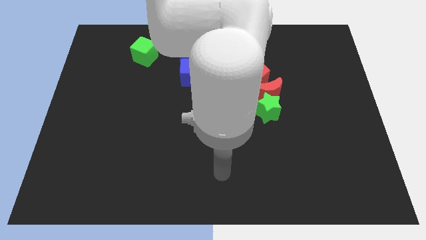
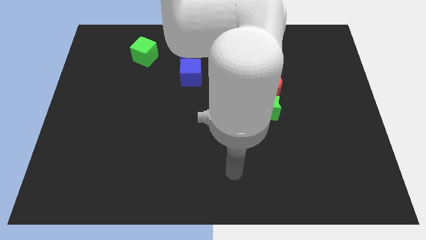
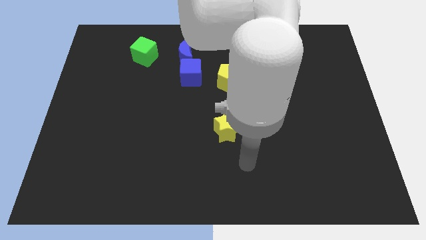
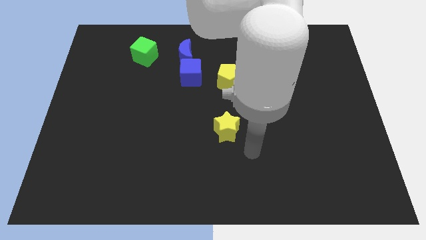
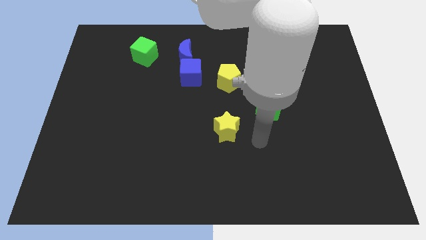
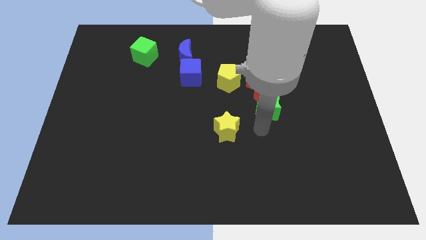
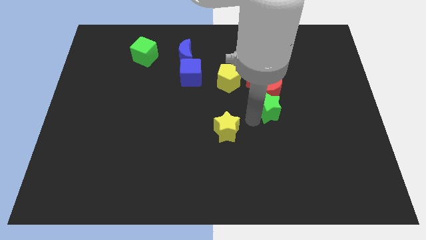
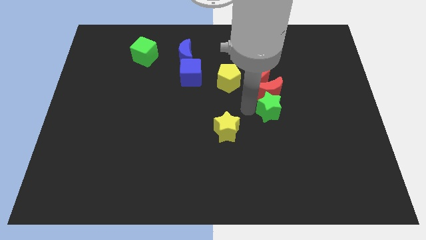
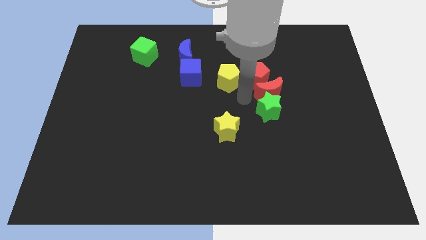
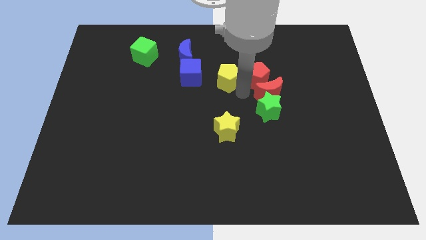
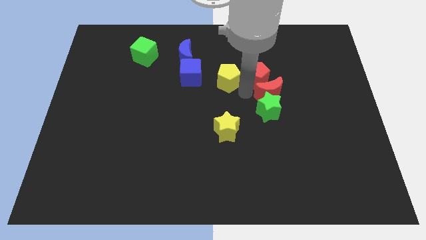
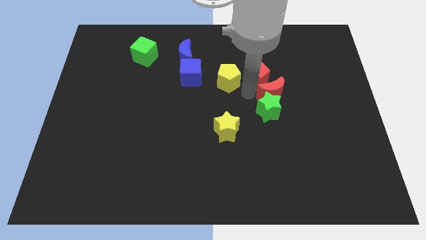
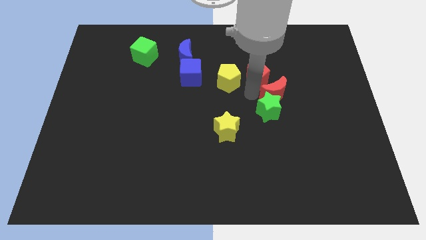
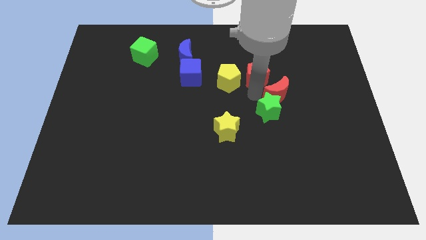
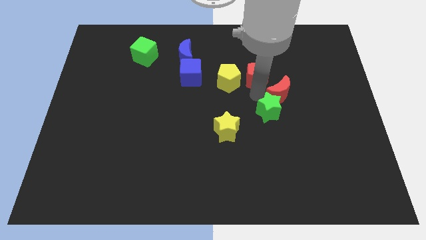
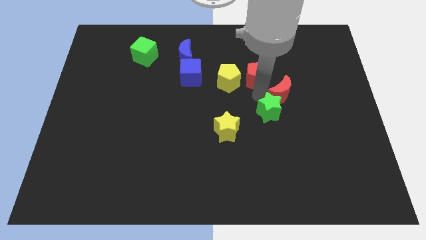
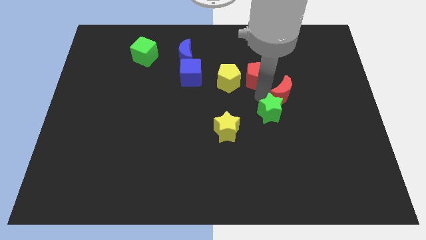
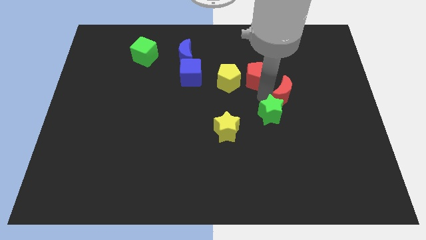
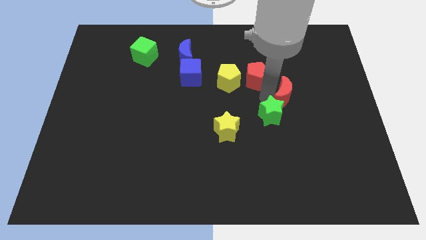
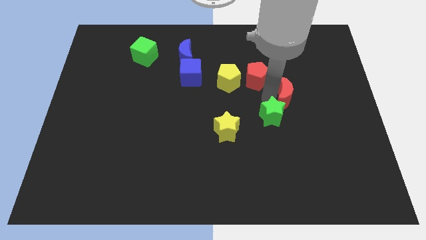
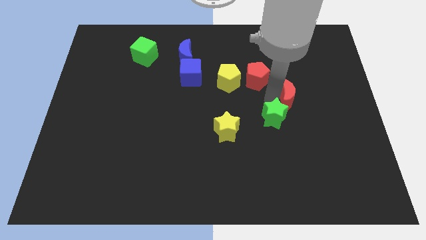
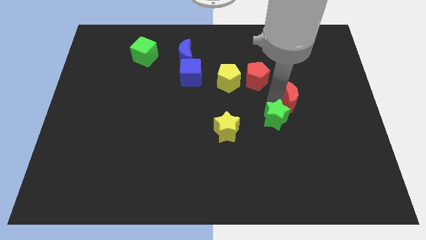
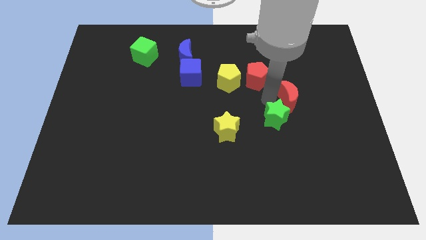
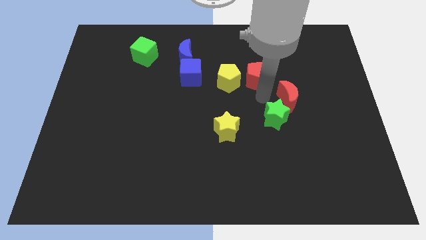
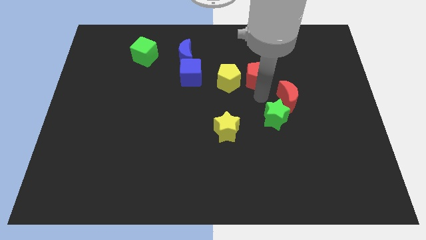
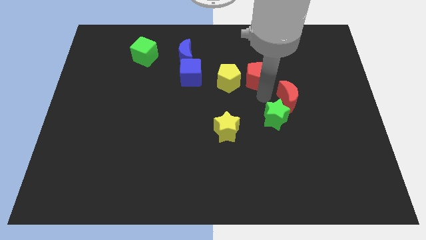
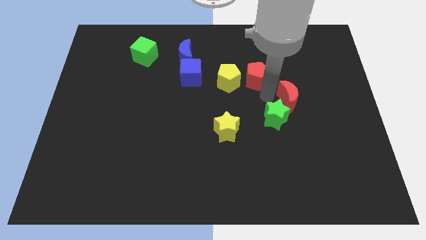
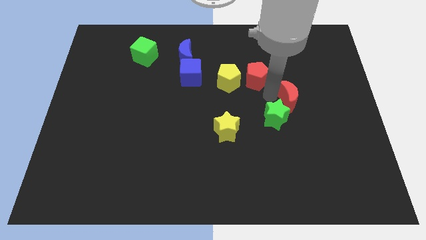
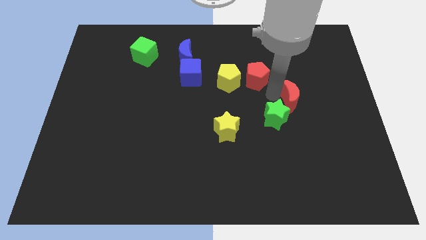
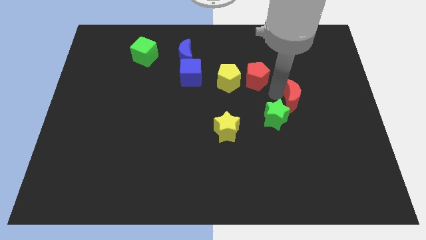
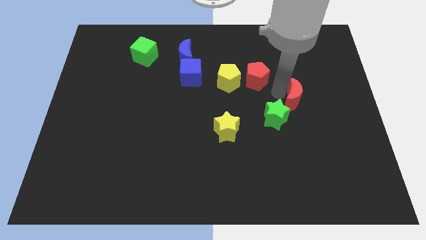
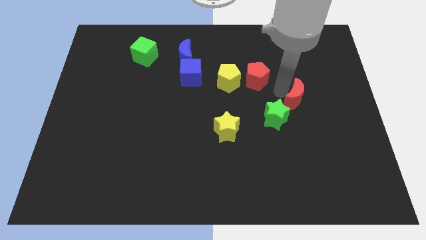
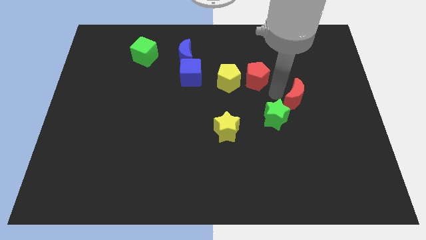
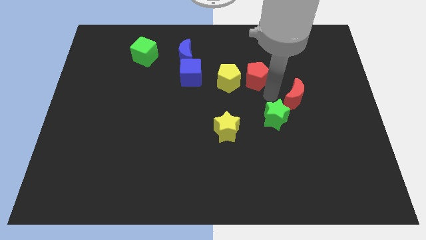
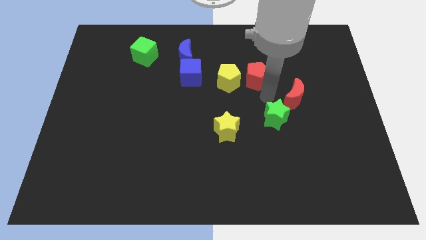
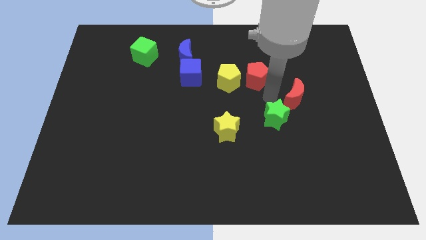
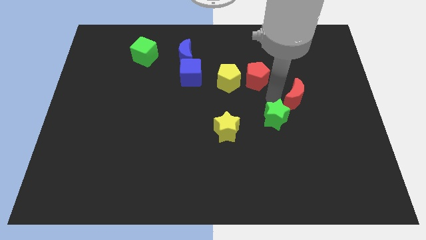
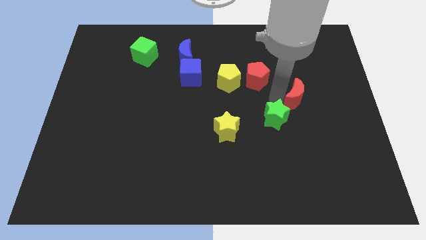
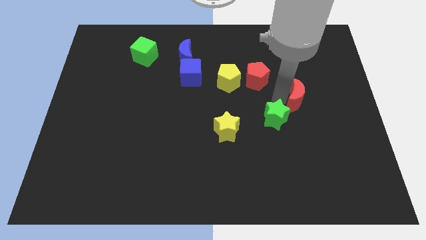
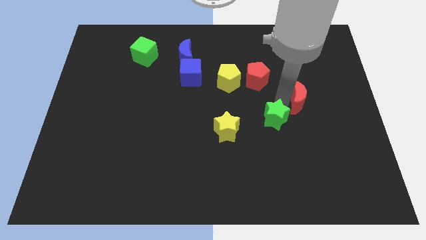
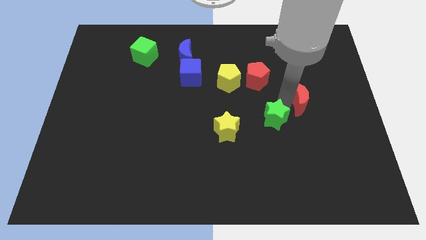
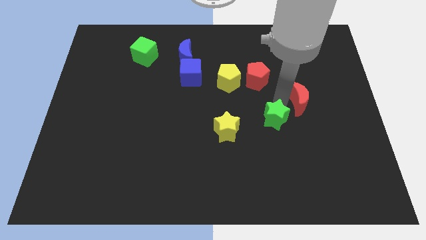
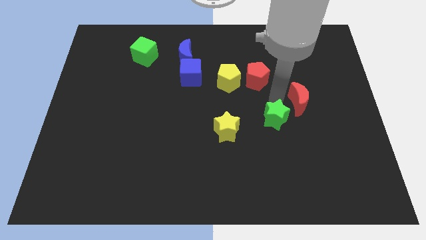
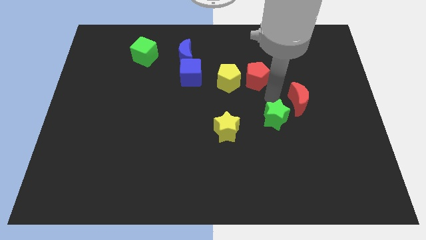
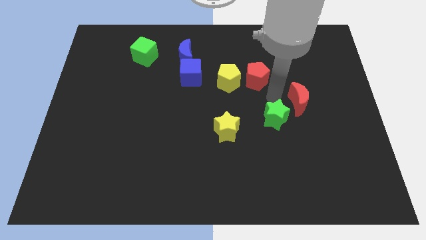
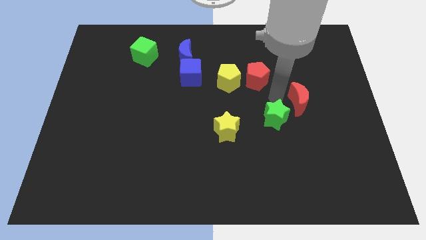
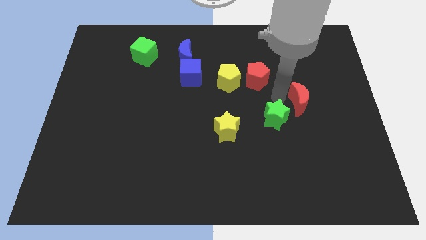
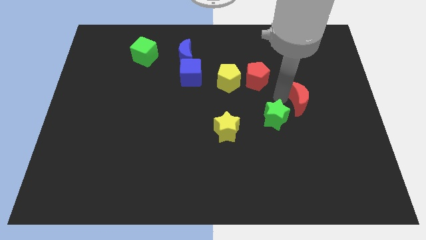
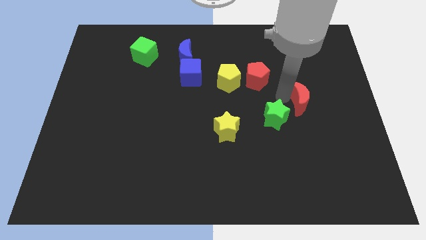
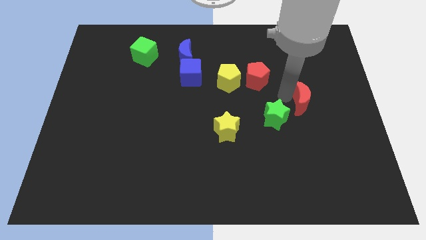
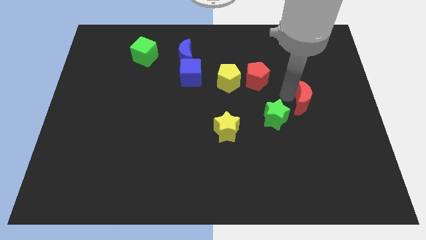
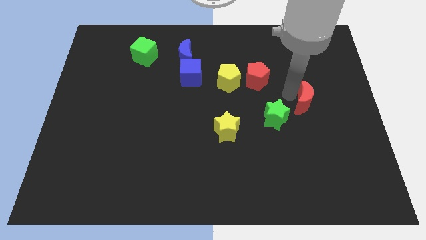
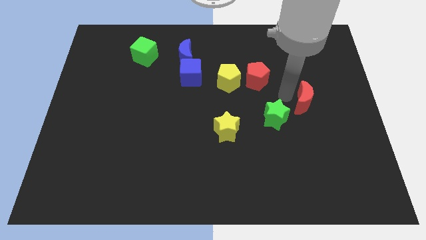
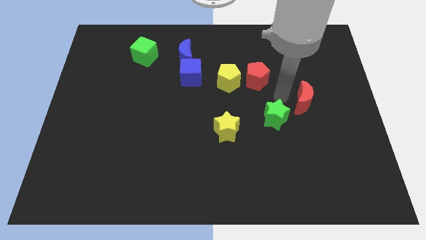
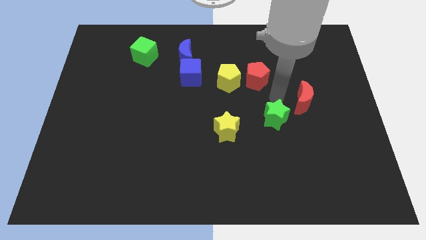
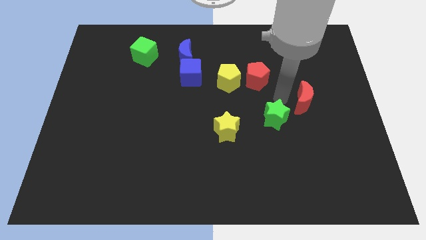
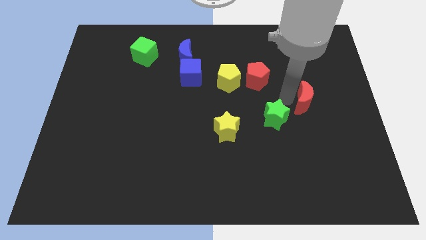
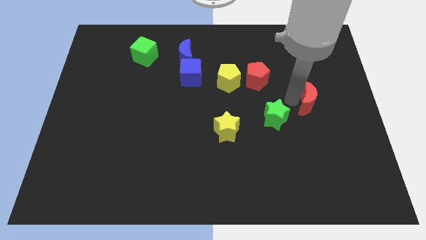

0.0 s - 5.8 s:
move the red moon away from the green star and red pentagon

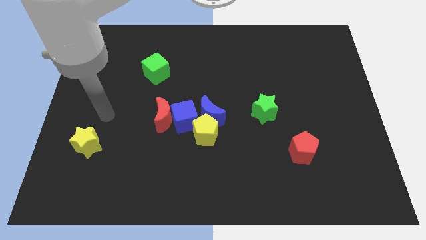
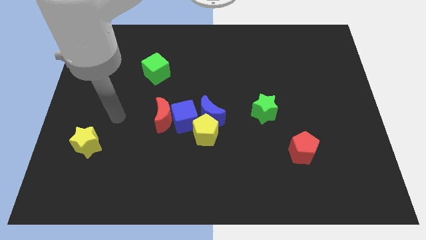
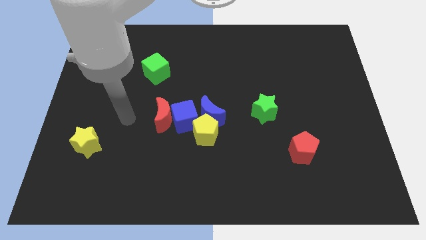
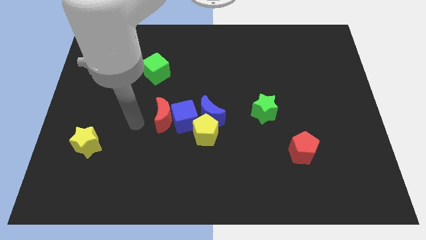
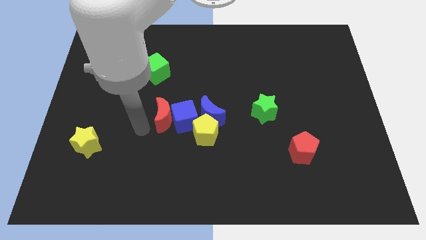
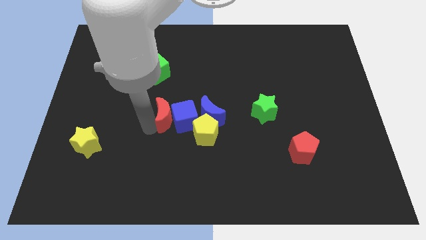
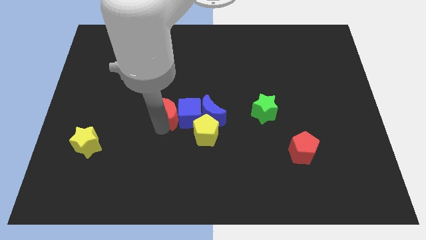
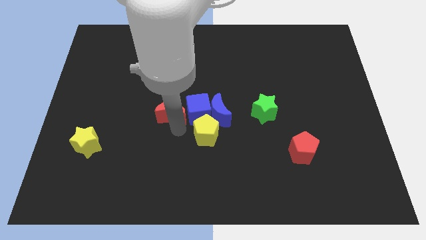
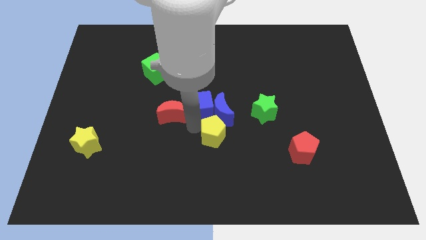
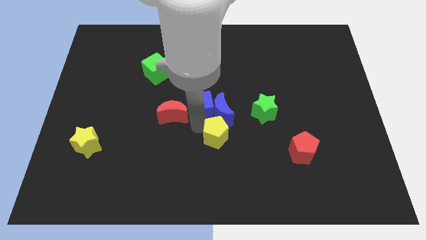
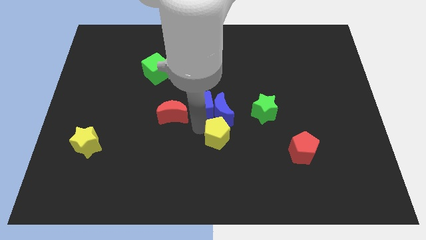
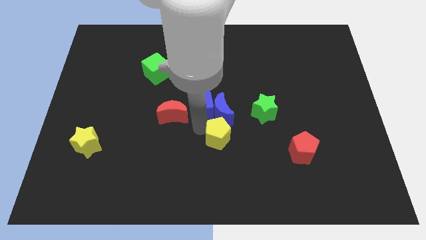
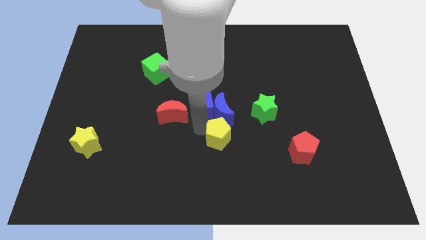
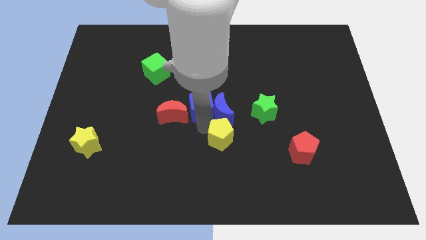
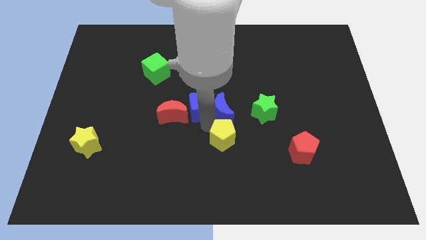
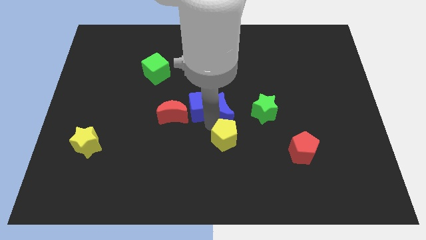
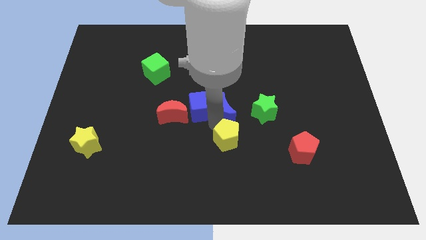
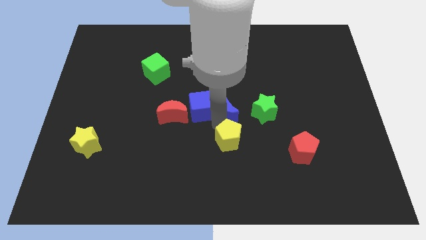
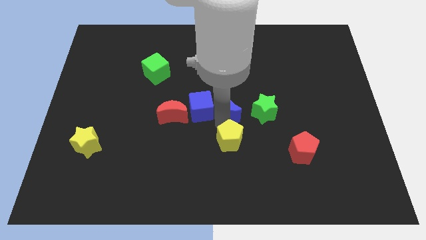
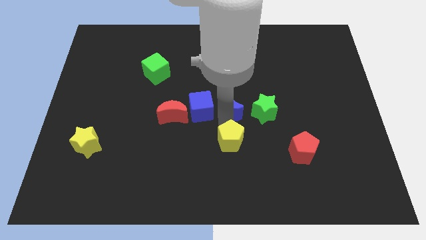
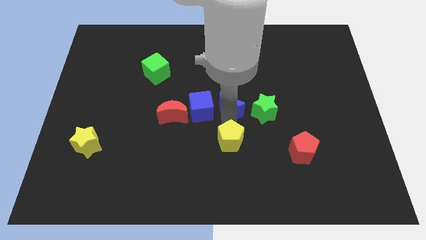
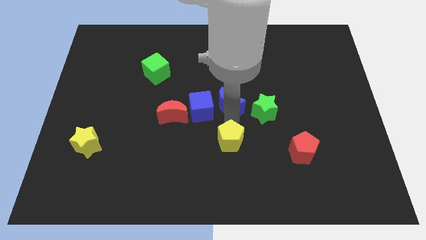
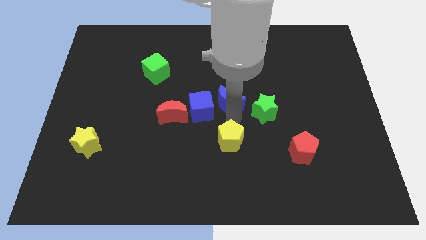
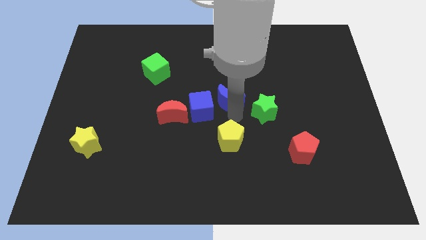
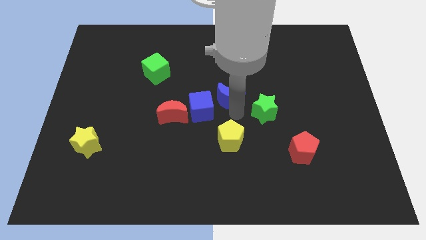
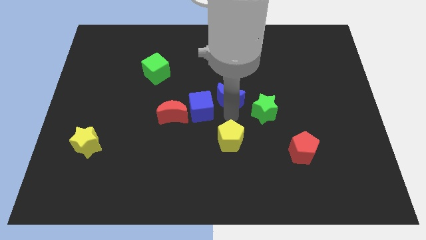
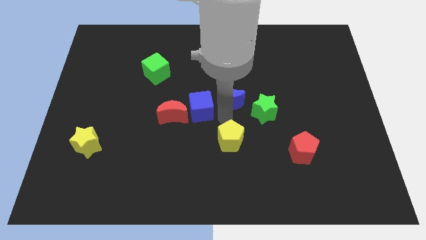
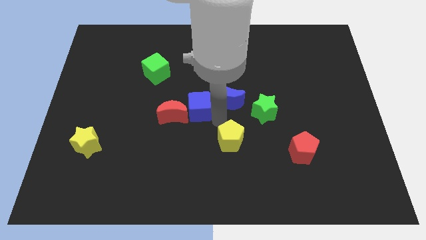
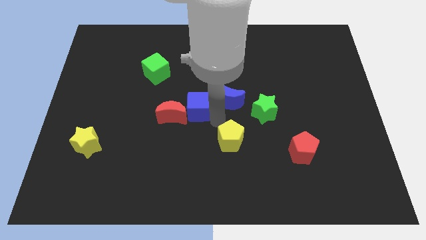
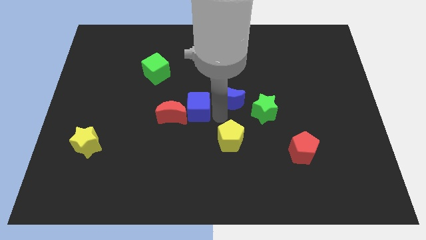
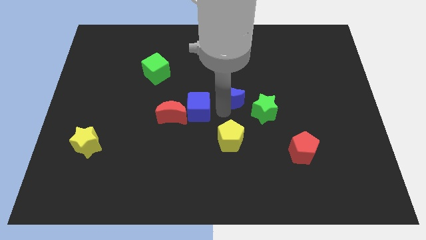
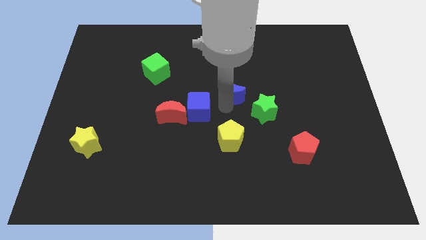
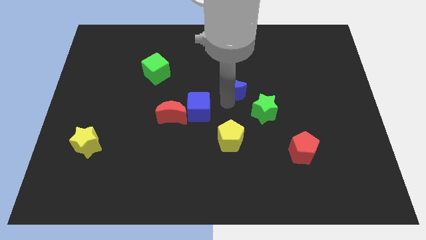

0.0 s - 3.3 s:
move the blue moon away from the yellow pentagon and blue cube

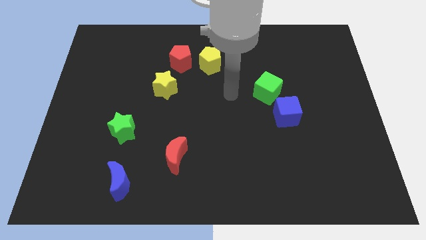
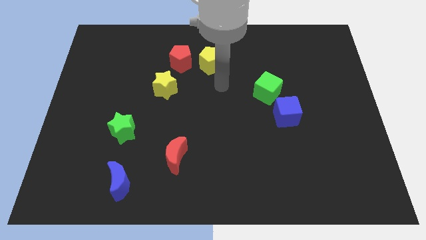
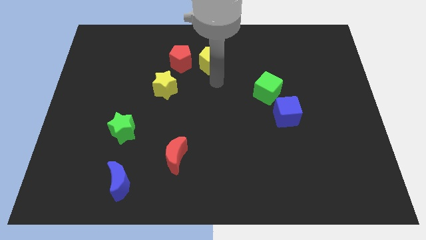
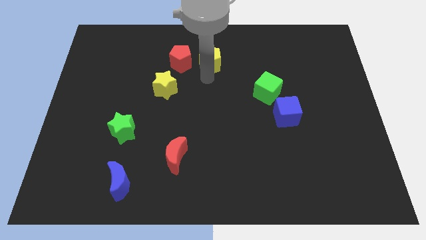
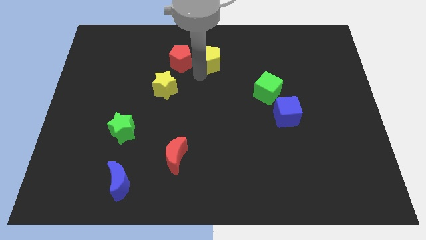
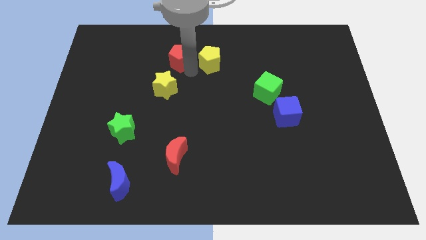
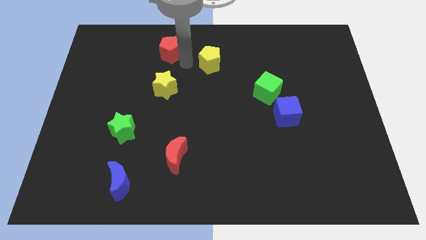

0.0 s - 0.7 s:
move the yellow pentagon away from the red pentagon
